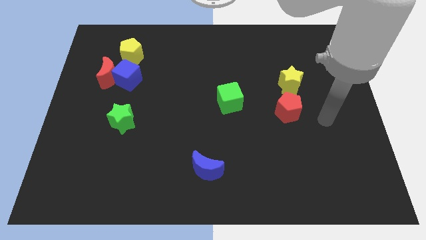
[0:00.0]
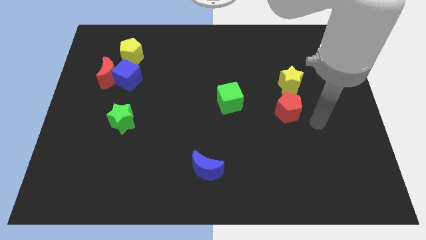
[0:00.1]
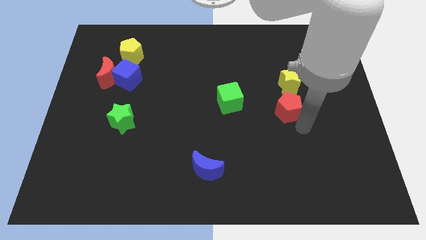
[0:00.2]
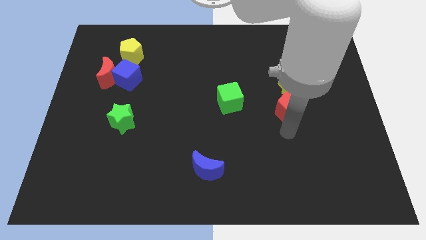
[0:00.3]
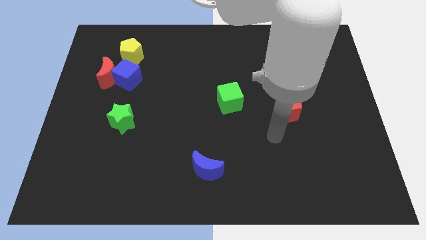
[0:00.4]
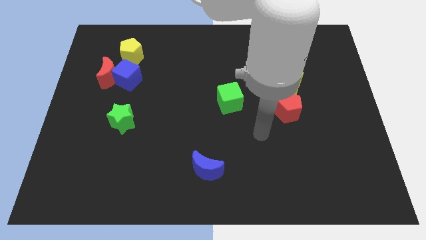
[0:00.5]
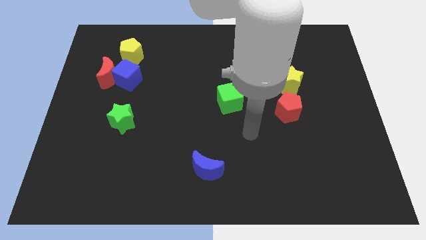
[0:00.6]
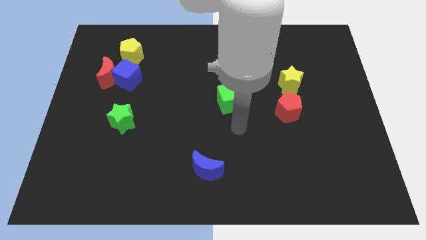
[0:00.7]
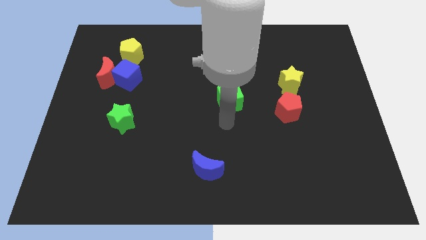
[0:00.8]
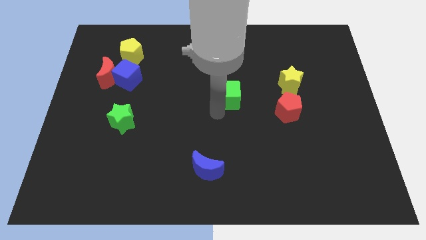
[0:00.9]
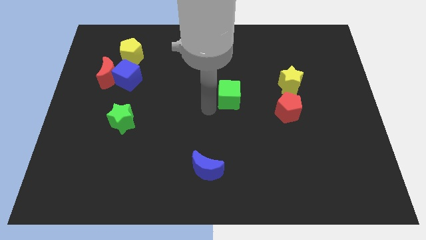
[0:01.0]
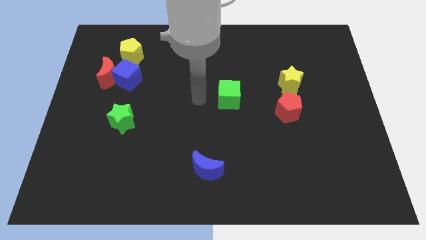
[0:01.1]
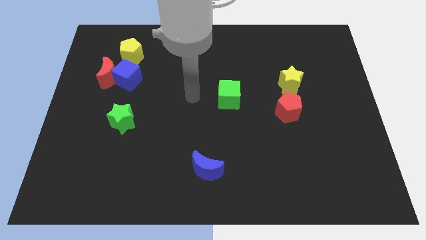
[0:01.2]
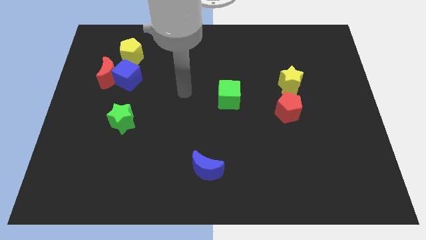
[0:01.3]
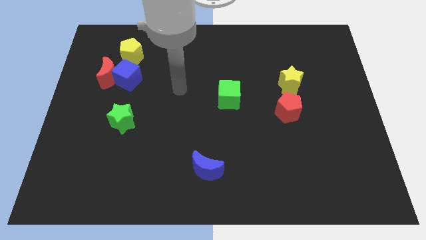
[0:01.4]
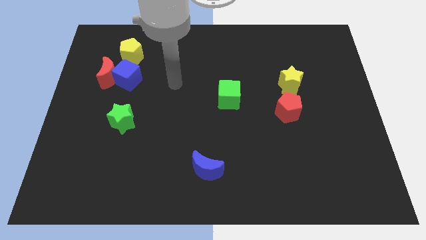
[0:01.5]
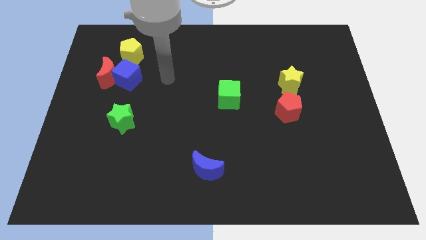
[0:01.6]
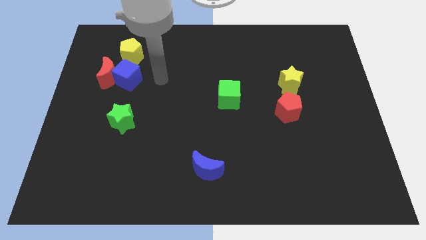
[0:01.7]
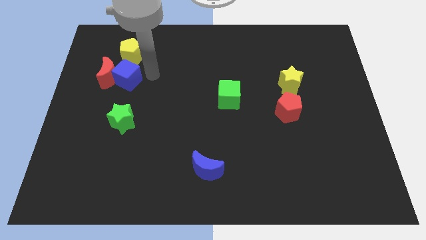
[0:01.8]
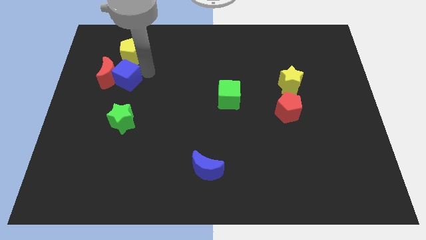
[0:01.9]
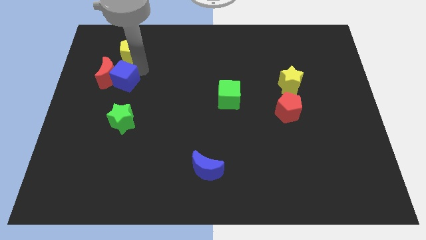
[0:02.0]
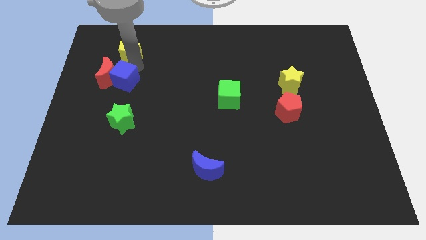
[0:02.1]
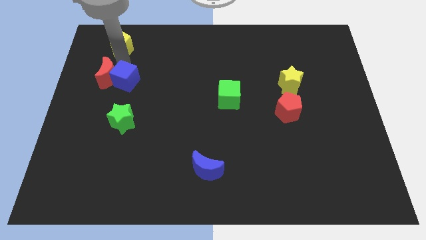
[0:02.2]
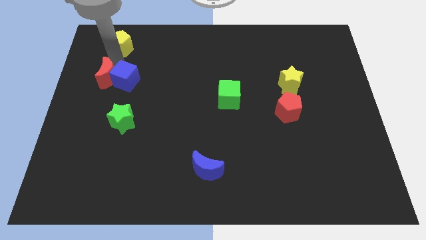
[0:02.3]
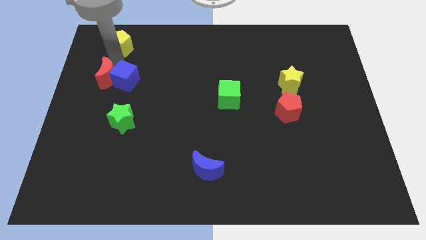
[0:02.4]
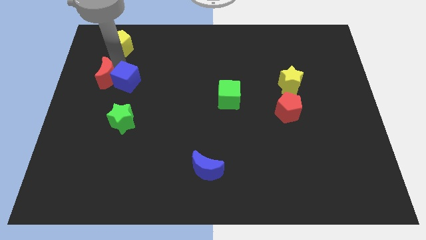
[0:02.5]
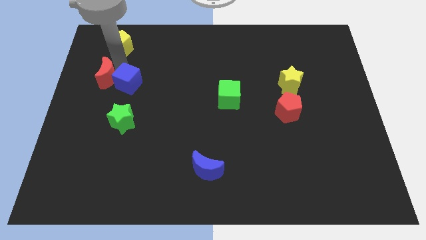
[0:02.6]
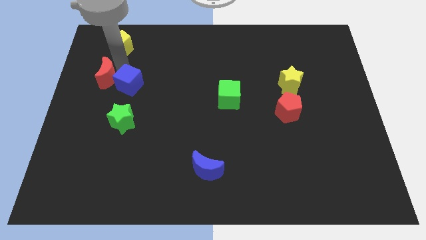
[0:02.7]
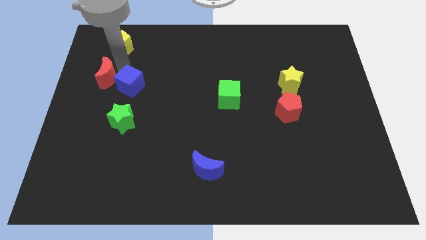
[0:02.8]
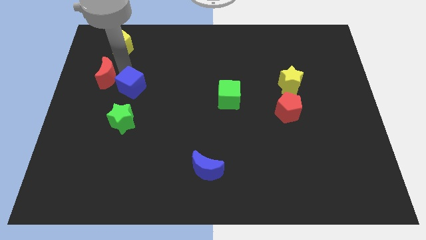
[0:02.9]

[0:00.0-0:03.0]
pull the blue cube apart from the red moon and yellow pentagon

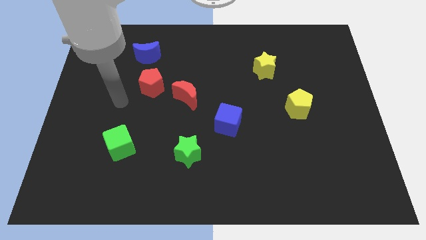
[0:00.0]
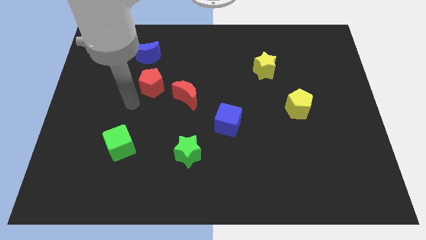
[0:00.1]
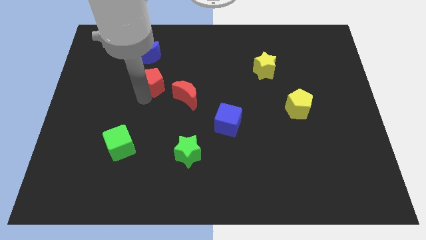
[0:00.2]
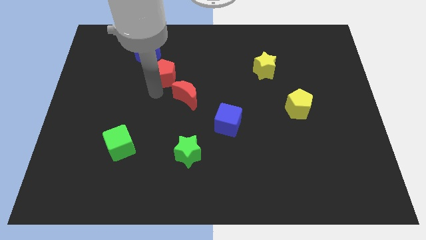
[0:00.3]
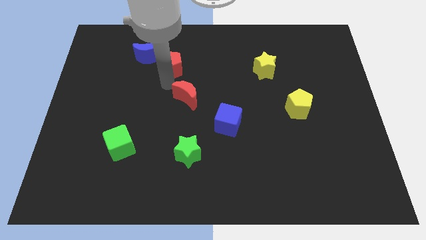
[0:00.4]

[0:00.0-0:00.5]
separate the red moon from the red pentagon

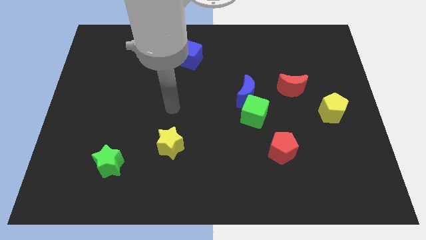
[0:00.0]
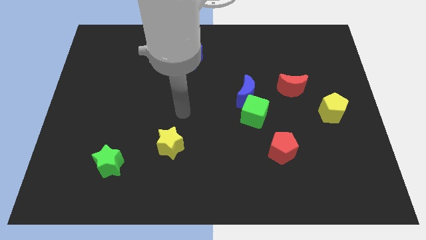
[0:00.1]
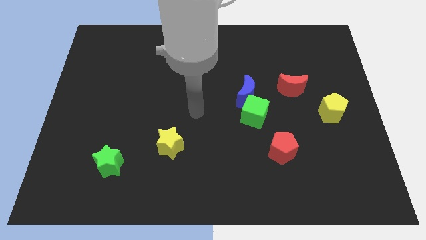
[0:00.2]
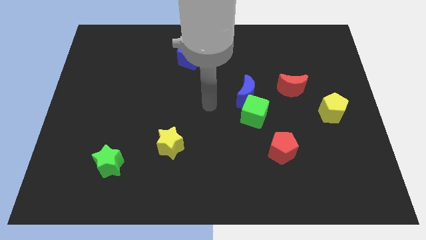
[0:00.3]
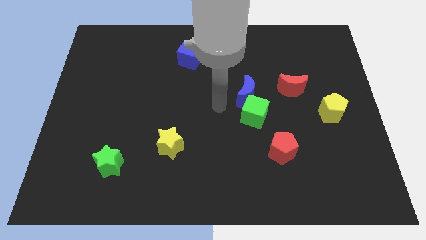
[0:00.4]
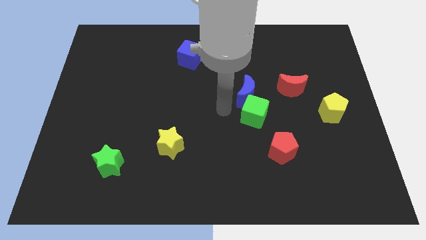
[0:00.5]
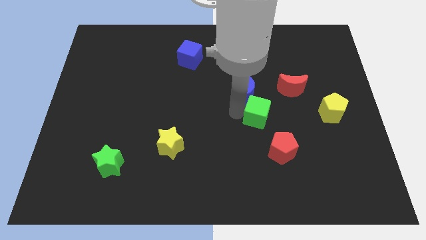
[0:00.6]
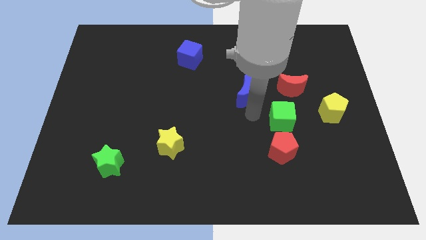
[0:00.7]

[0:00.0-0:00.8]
separate the blue moon from the green cube

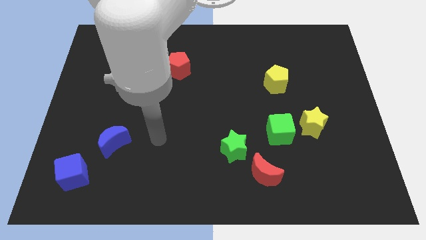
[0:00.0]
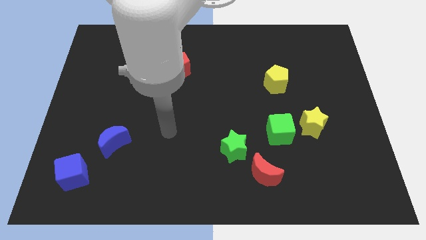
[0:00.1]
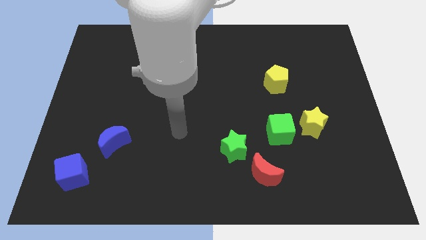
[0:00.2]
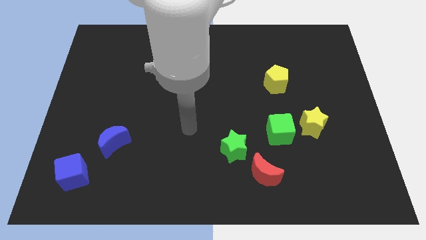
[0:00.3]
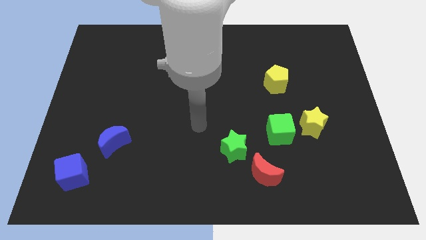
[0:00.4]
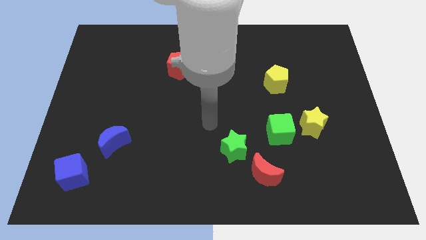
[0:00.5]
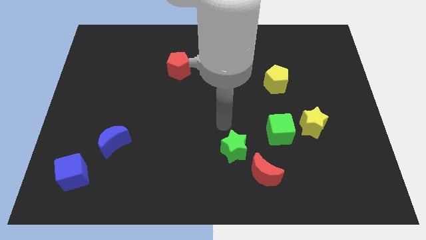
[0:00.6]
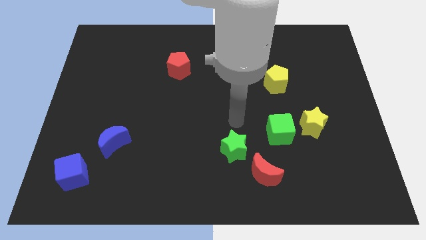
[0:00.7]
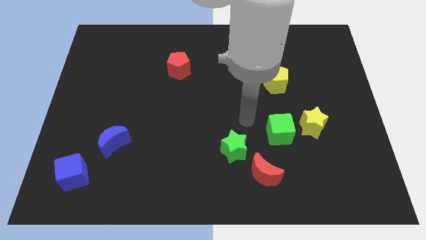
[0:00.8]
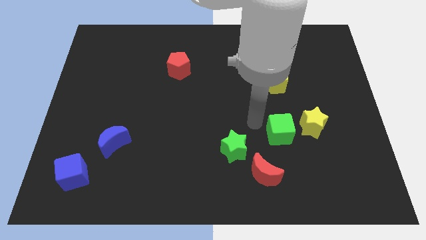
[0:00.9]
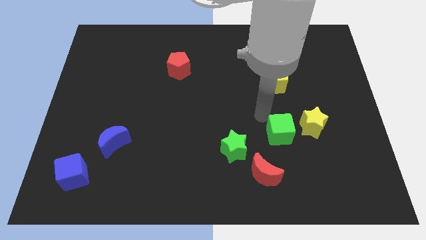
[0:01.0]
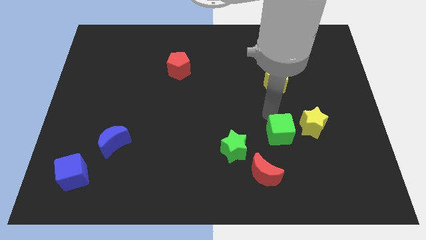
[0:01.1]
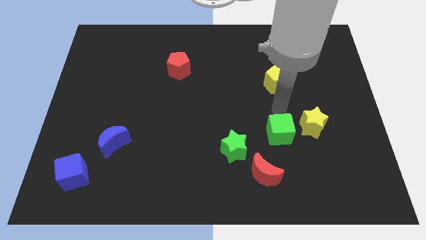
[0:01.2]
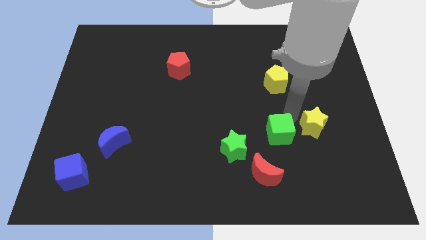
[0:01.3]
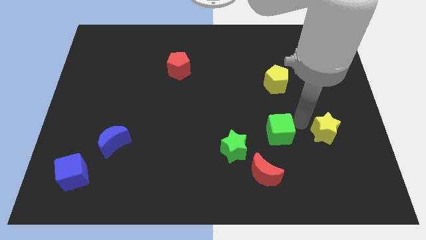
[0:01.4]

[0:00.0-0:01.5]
separate the green cube from the yellow star

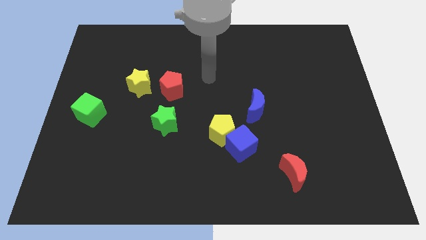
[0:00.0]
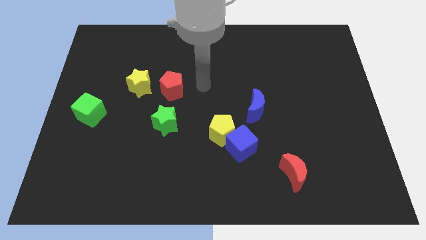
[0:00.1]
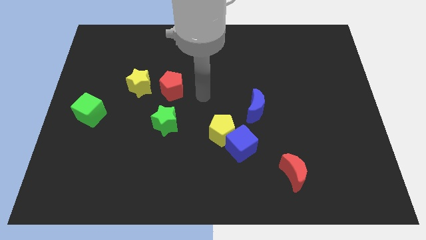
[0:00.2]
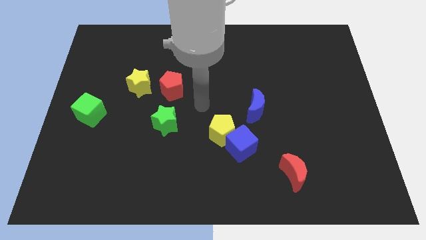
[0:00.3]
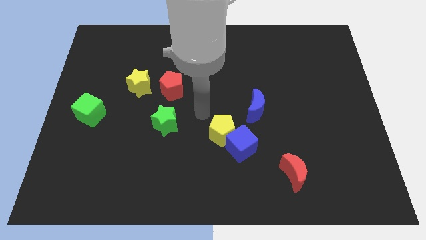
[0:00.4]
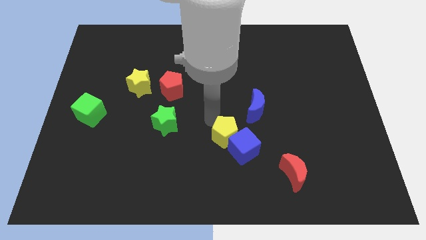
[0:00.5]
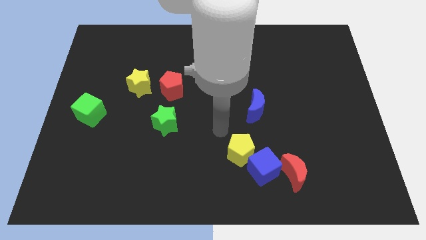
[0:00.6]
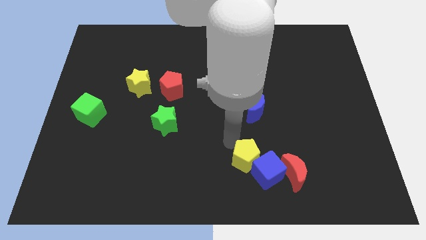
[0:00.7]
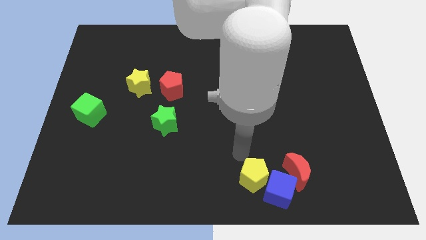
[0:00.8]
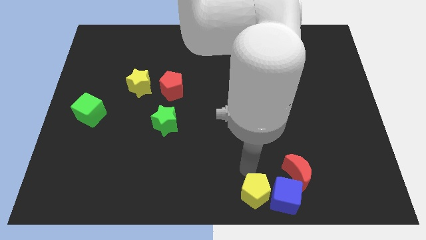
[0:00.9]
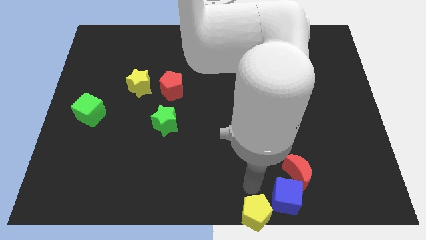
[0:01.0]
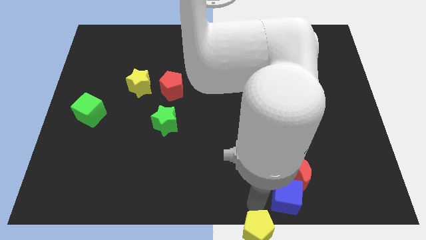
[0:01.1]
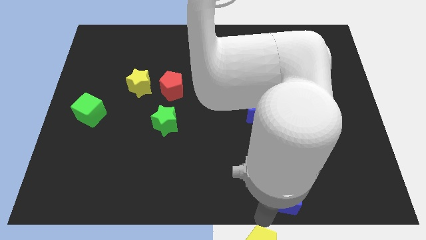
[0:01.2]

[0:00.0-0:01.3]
separate the blue cube from the yellow pentagon

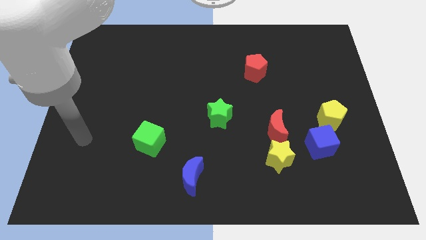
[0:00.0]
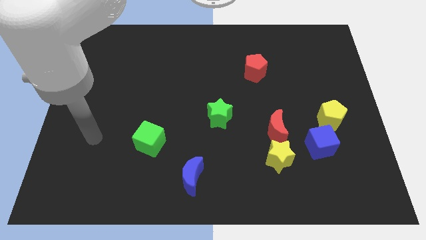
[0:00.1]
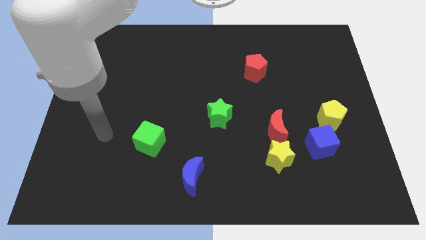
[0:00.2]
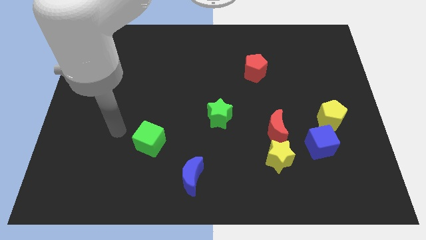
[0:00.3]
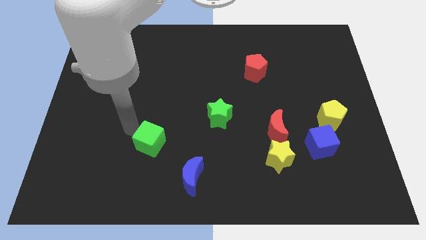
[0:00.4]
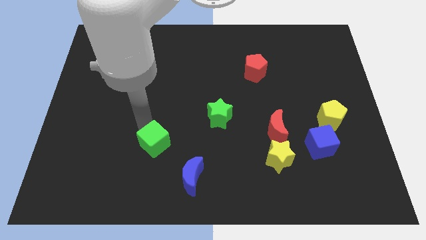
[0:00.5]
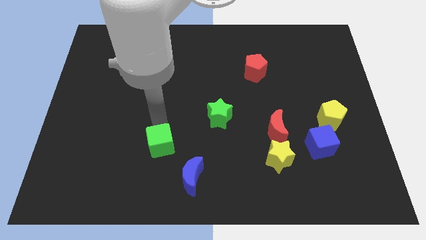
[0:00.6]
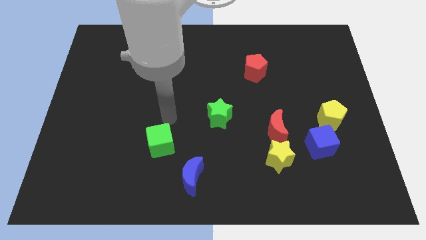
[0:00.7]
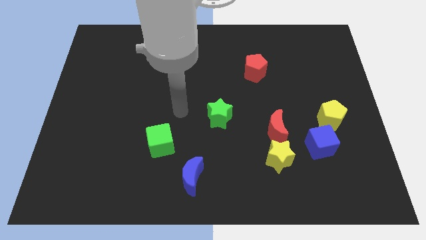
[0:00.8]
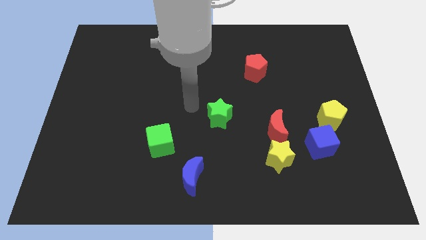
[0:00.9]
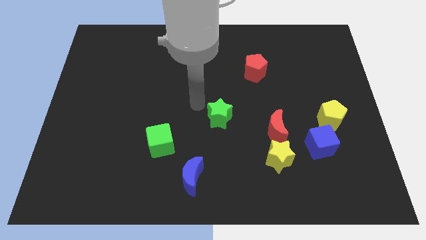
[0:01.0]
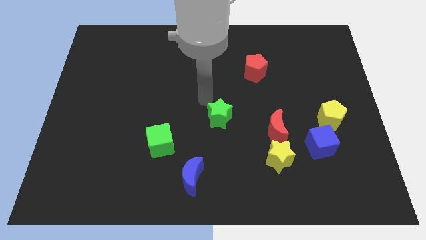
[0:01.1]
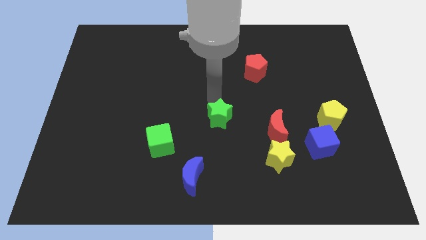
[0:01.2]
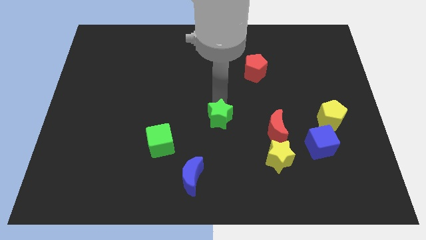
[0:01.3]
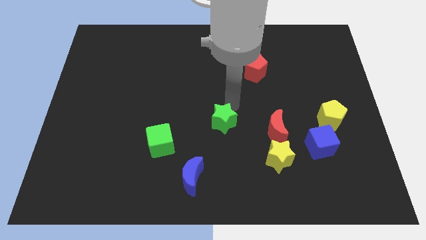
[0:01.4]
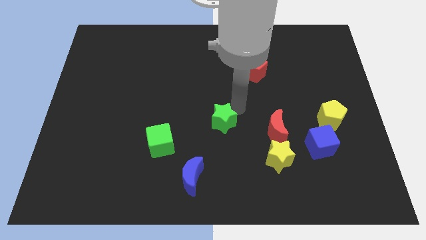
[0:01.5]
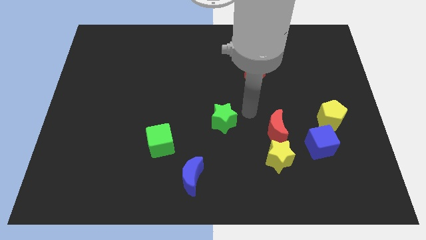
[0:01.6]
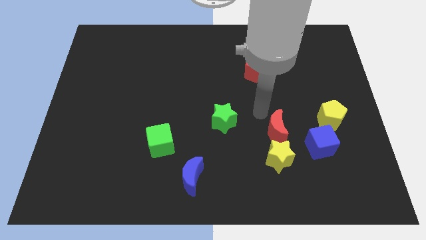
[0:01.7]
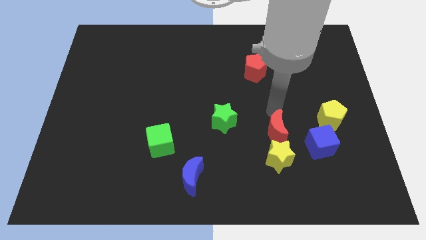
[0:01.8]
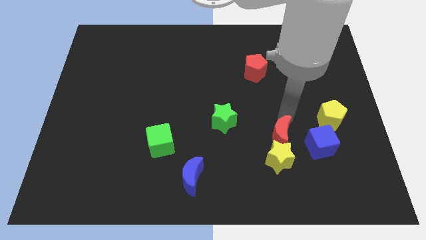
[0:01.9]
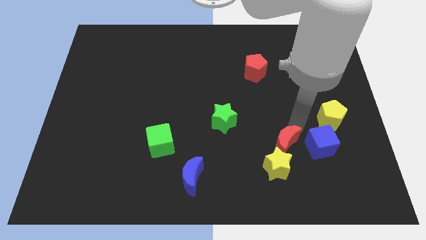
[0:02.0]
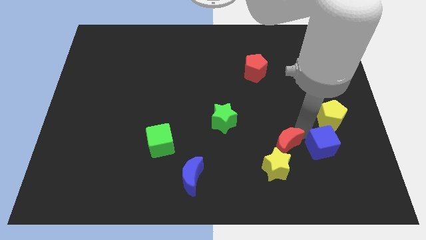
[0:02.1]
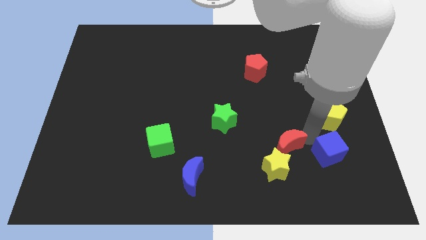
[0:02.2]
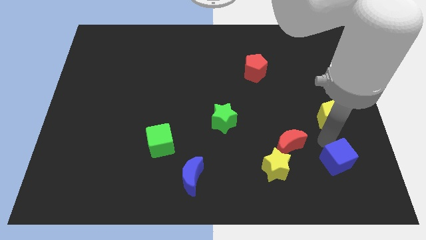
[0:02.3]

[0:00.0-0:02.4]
separate the yellow pentagon from the blue cube
